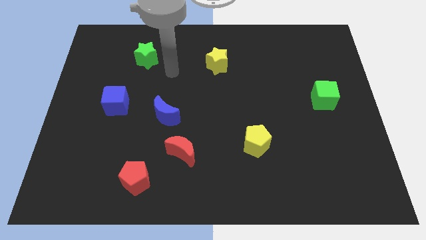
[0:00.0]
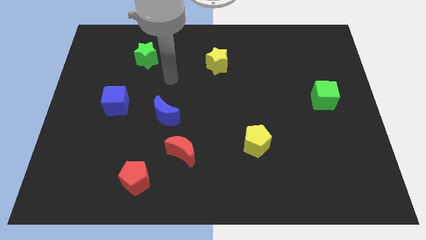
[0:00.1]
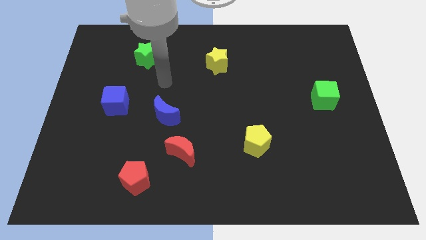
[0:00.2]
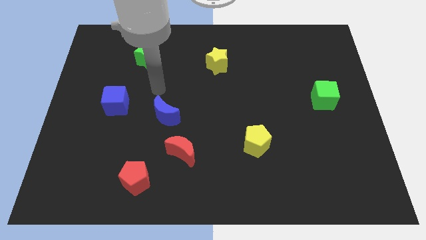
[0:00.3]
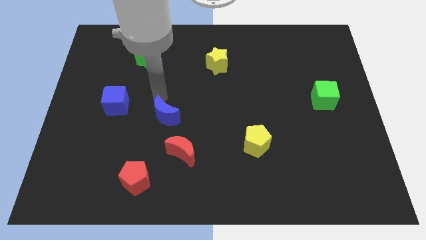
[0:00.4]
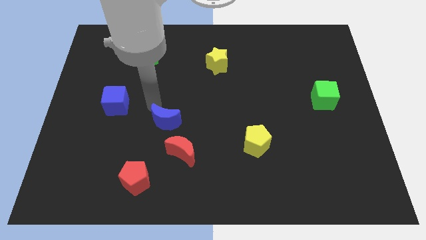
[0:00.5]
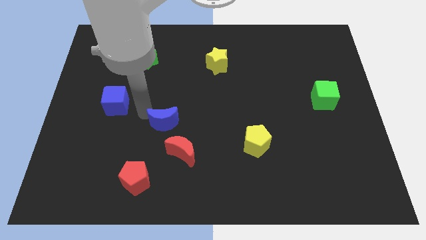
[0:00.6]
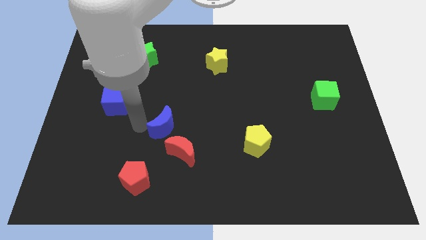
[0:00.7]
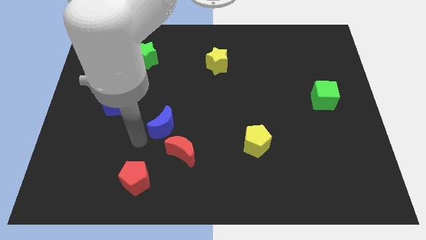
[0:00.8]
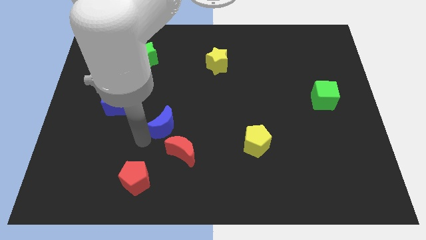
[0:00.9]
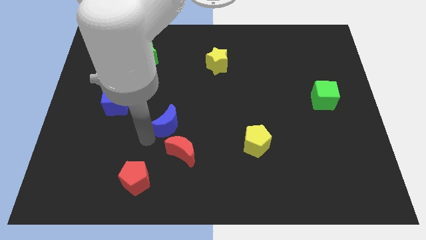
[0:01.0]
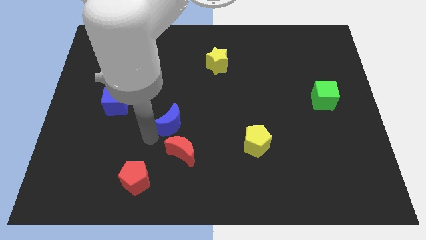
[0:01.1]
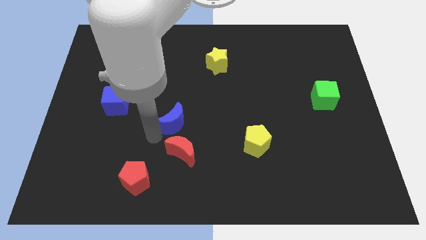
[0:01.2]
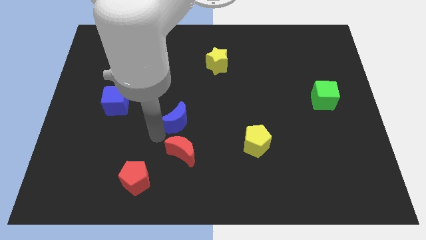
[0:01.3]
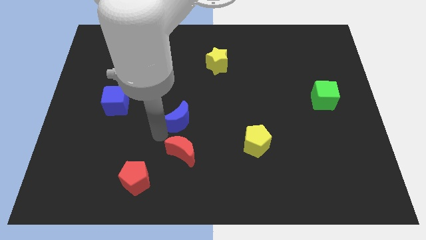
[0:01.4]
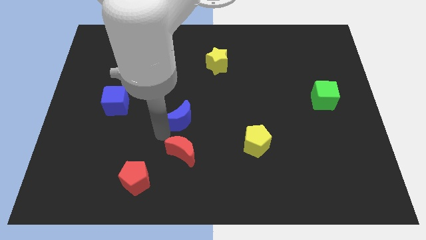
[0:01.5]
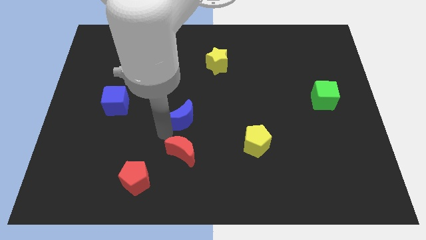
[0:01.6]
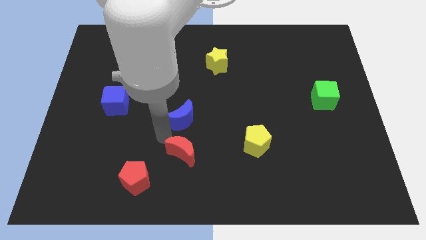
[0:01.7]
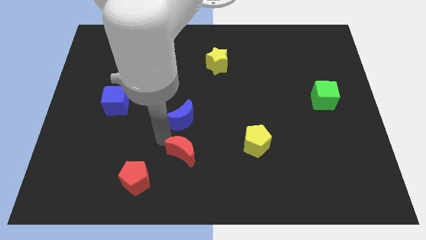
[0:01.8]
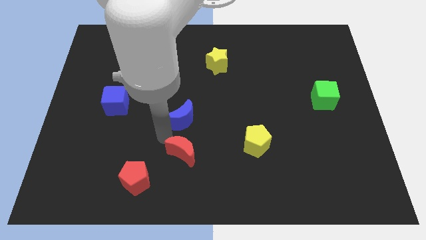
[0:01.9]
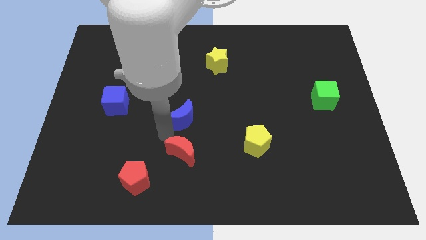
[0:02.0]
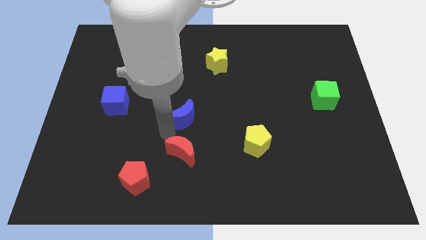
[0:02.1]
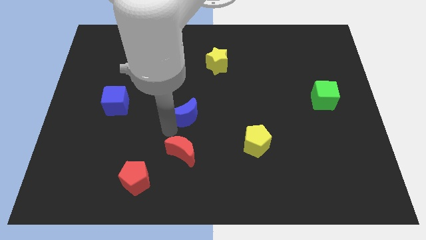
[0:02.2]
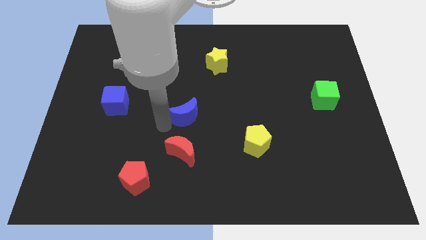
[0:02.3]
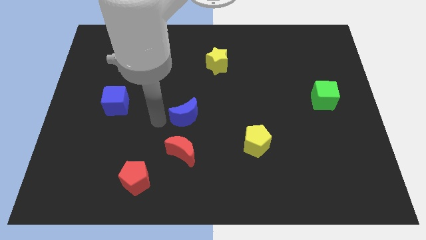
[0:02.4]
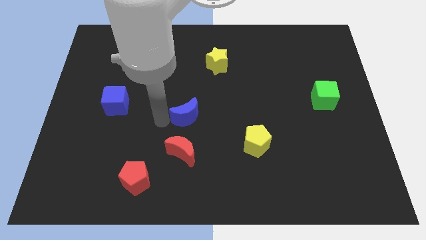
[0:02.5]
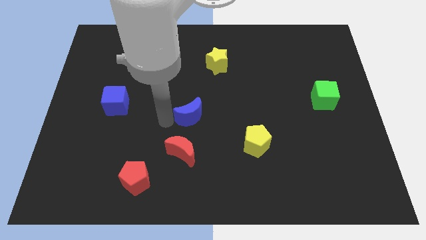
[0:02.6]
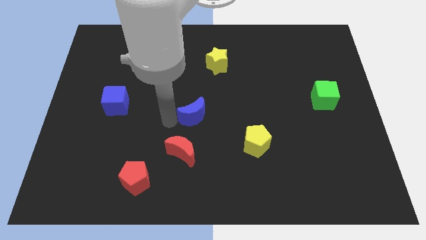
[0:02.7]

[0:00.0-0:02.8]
slide the blue moon right somewhat

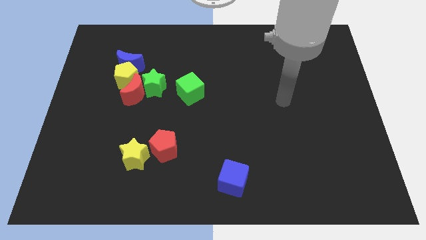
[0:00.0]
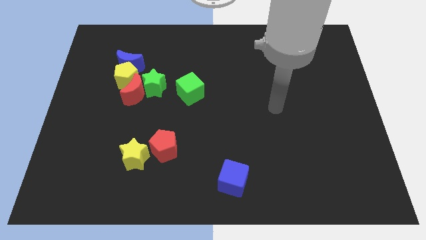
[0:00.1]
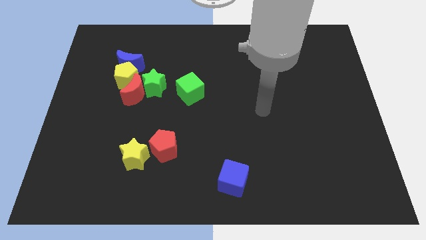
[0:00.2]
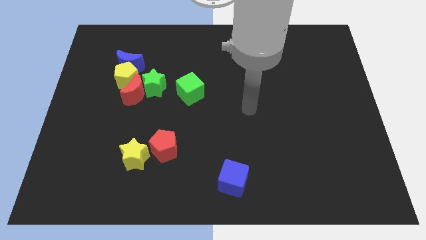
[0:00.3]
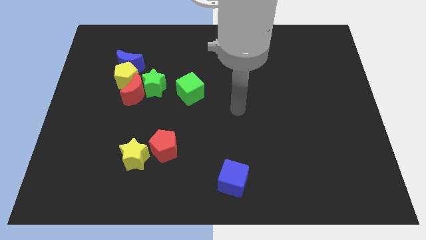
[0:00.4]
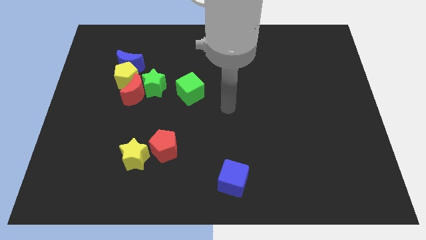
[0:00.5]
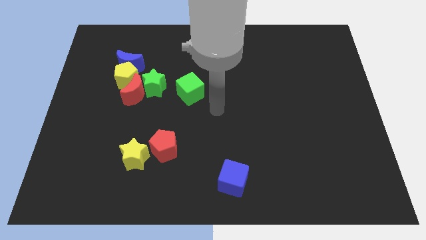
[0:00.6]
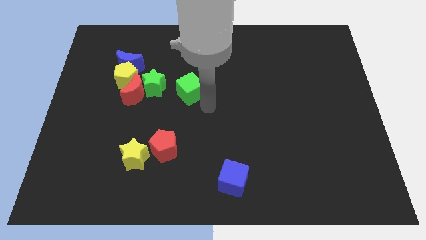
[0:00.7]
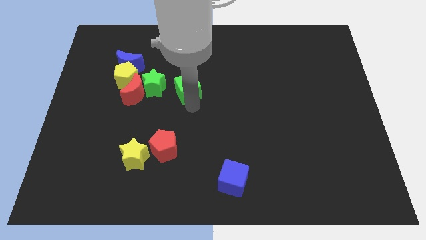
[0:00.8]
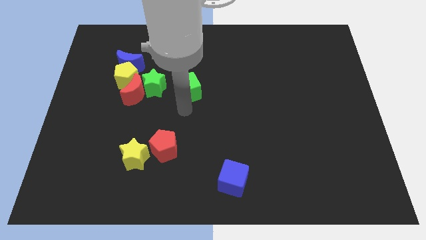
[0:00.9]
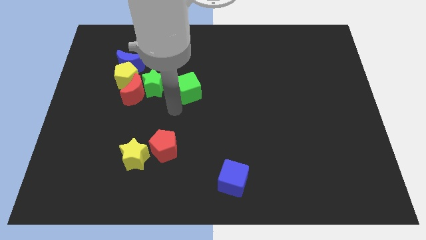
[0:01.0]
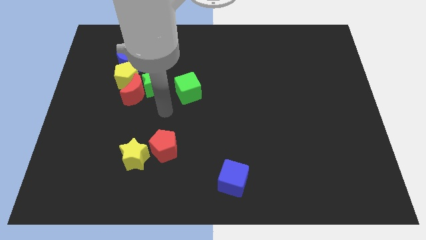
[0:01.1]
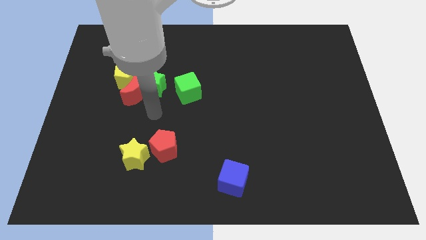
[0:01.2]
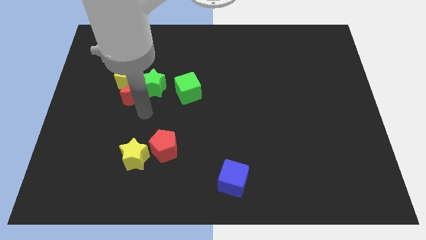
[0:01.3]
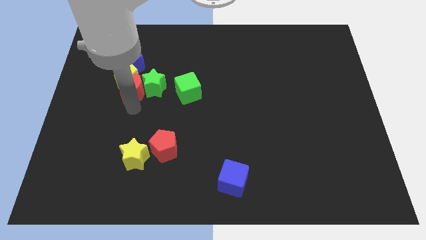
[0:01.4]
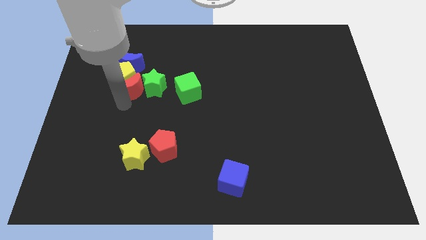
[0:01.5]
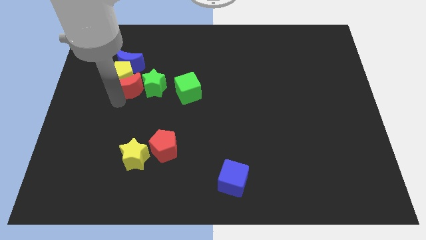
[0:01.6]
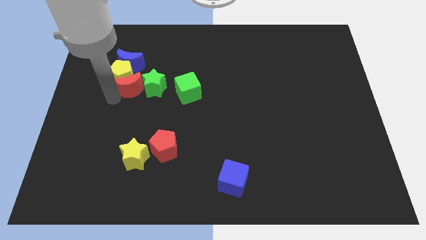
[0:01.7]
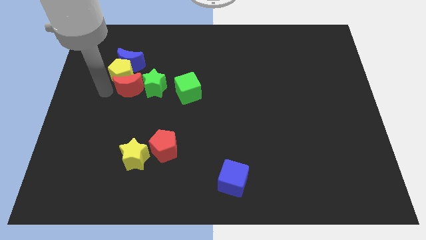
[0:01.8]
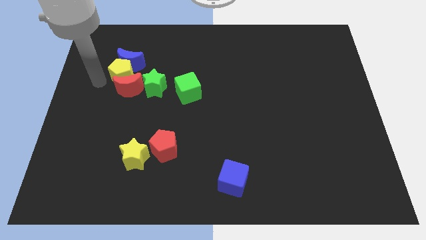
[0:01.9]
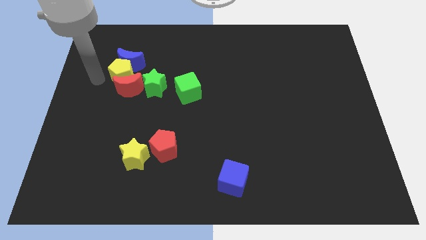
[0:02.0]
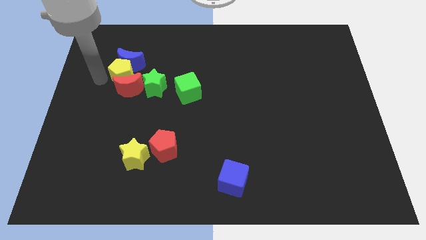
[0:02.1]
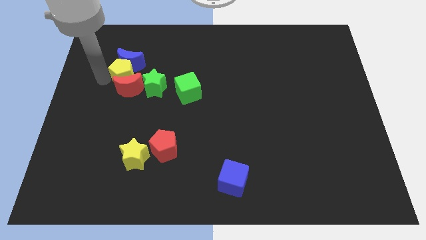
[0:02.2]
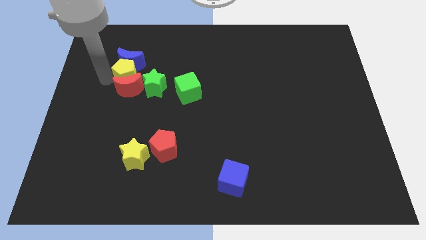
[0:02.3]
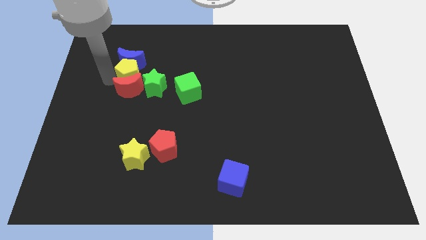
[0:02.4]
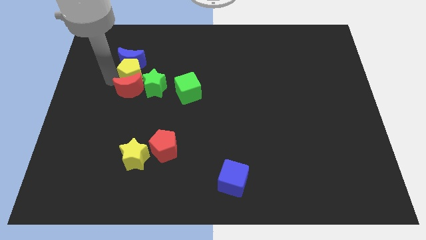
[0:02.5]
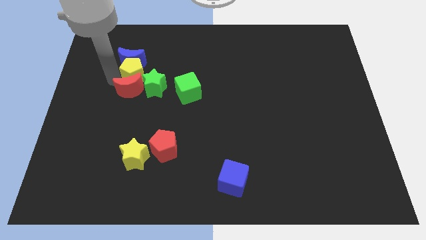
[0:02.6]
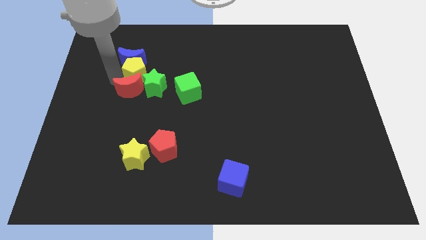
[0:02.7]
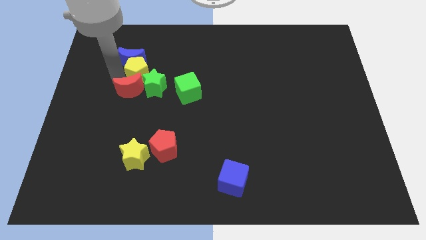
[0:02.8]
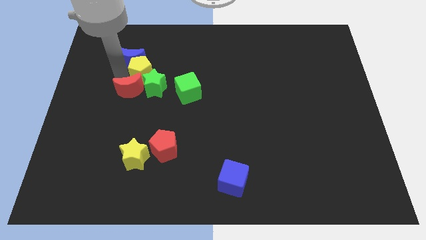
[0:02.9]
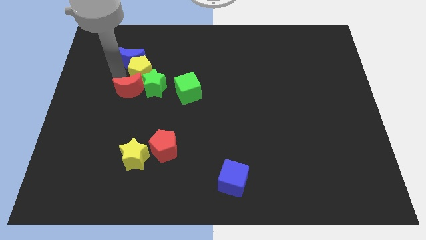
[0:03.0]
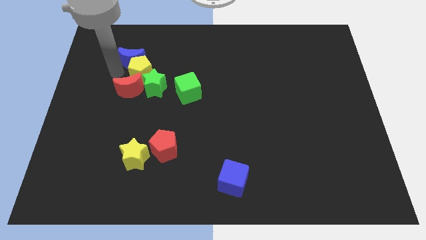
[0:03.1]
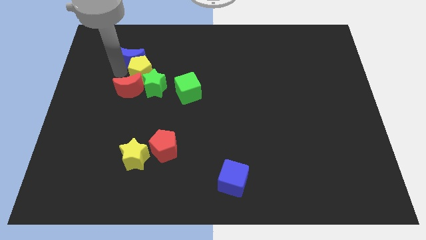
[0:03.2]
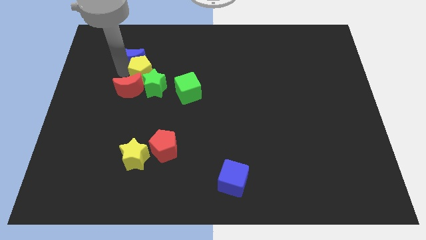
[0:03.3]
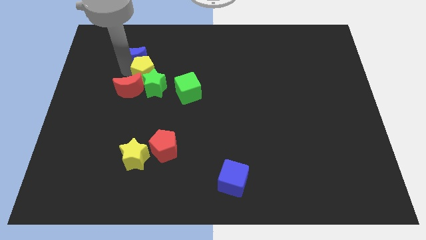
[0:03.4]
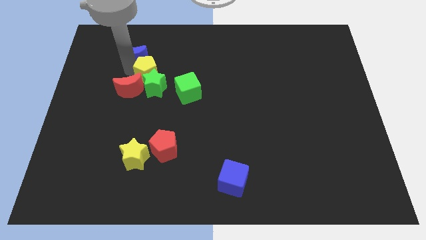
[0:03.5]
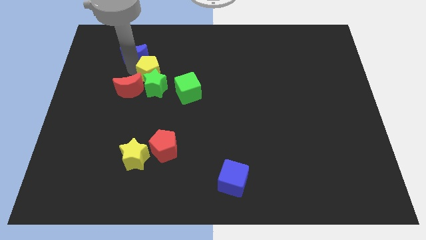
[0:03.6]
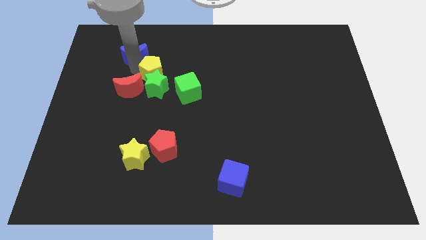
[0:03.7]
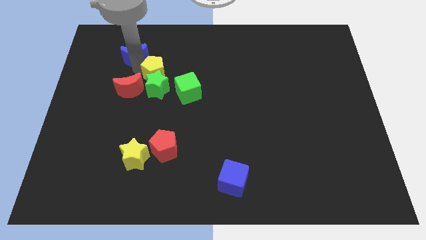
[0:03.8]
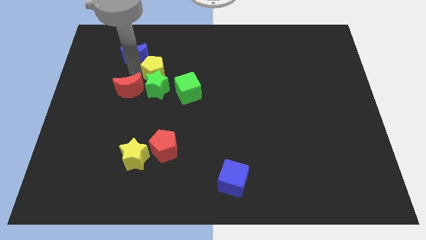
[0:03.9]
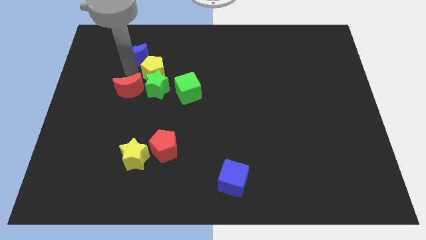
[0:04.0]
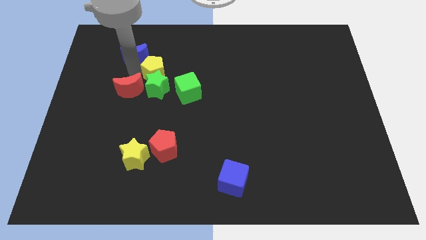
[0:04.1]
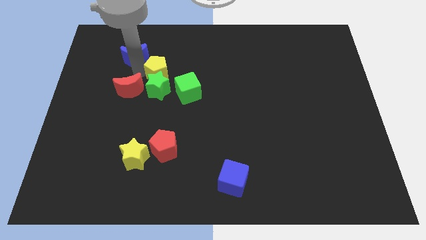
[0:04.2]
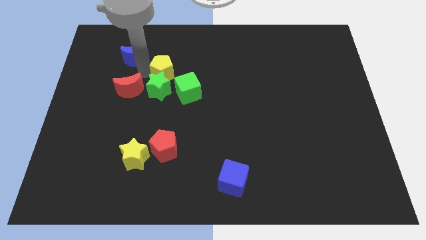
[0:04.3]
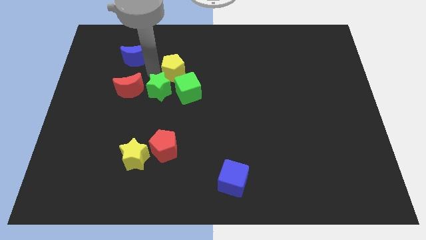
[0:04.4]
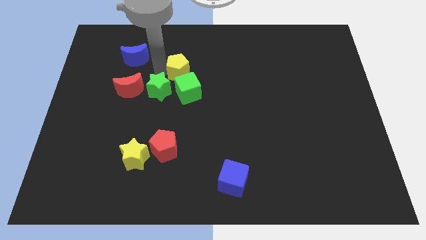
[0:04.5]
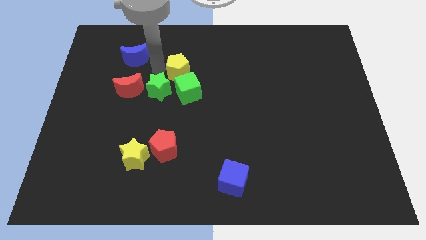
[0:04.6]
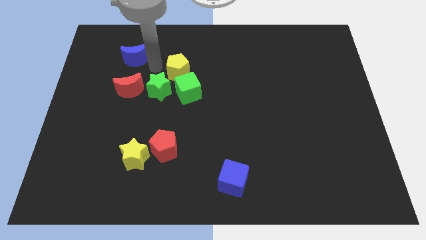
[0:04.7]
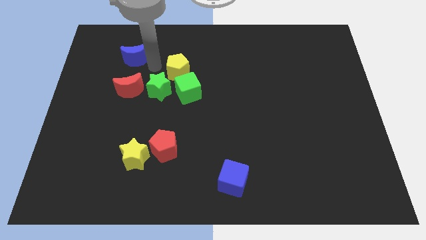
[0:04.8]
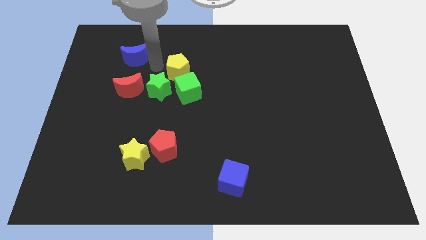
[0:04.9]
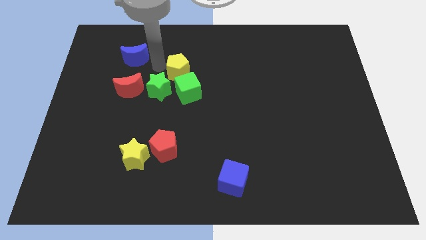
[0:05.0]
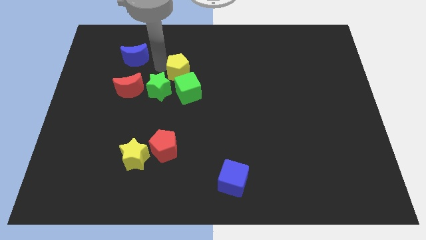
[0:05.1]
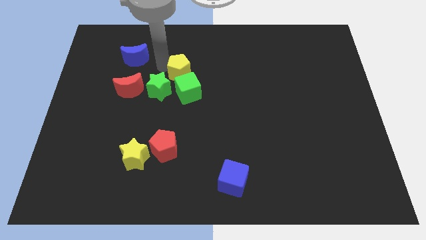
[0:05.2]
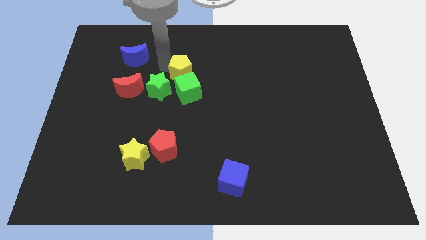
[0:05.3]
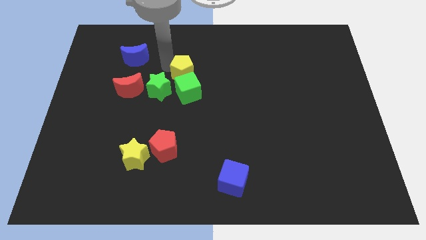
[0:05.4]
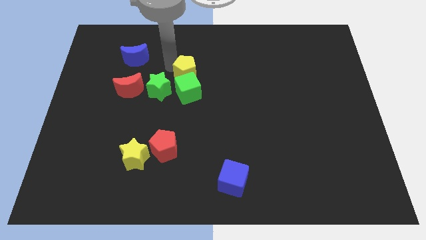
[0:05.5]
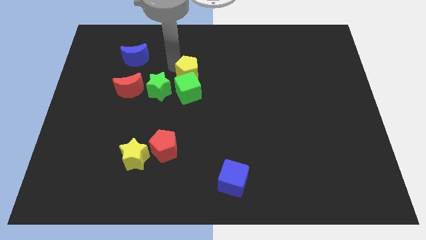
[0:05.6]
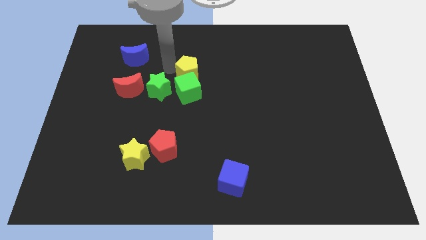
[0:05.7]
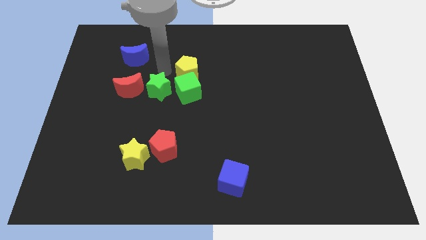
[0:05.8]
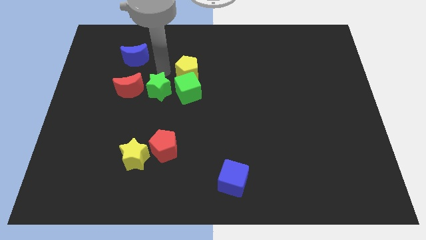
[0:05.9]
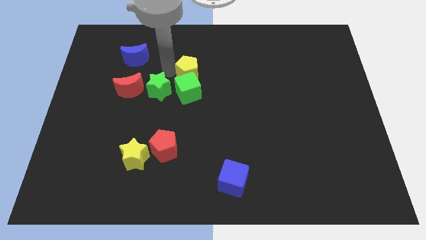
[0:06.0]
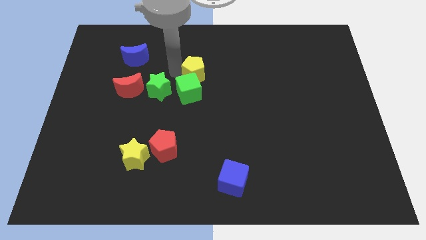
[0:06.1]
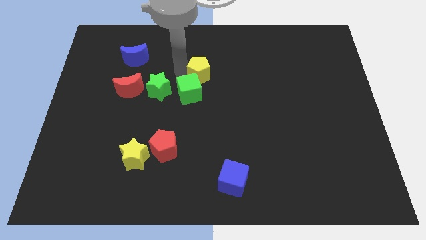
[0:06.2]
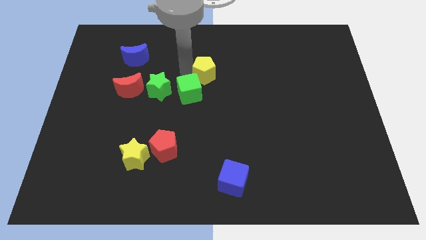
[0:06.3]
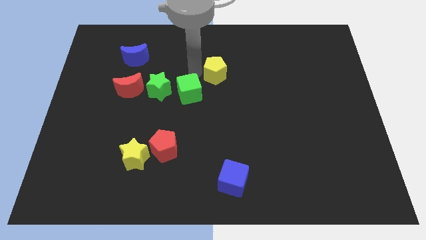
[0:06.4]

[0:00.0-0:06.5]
slide the yellow pentagon to the right
